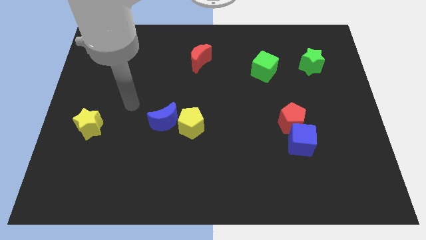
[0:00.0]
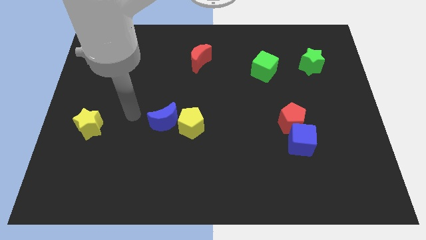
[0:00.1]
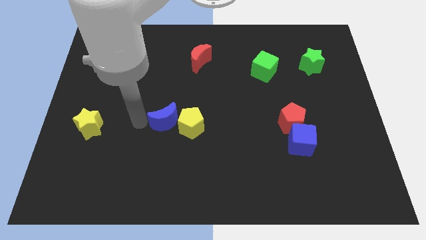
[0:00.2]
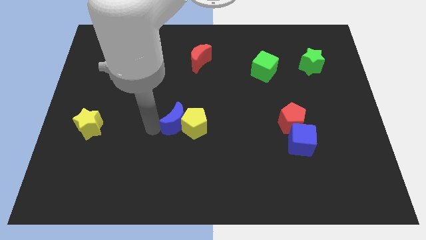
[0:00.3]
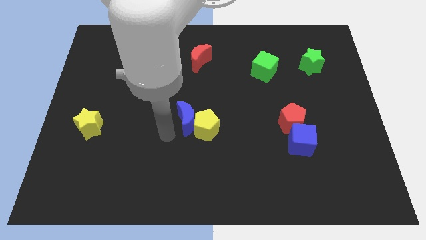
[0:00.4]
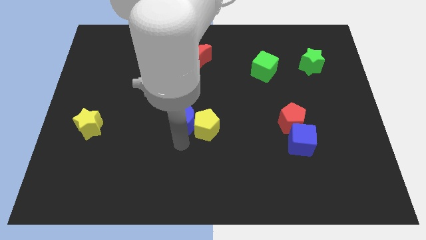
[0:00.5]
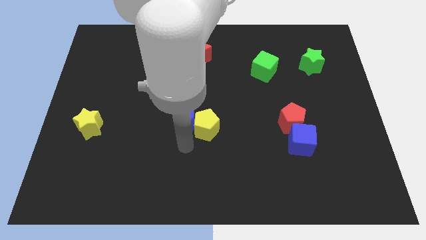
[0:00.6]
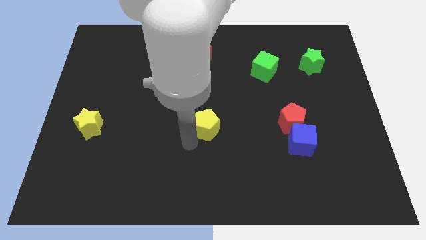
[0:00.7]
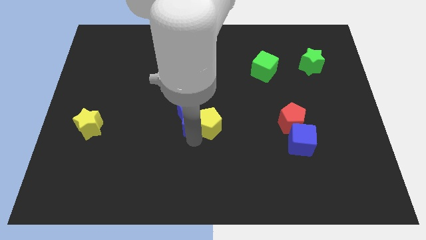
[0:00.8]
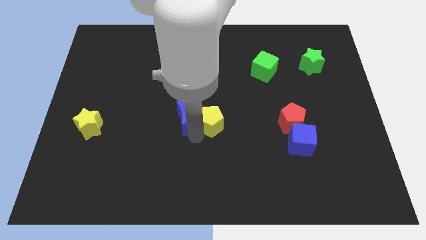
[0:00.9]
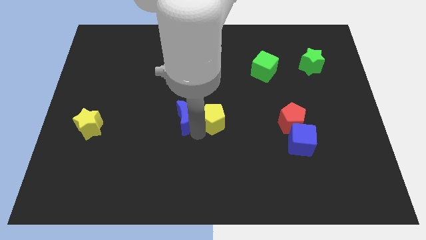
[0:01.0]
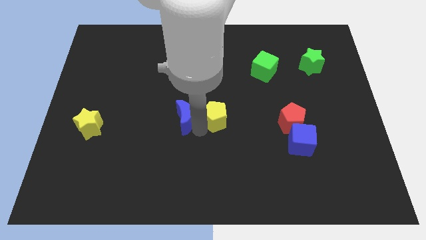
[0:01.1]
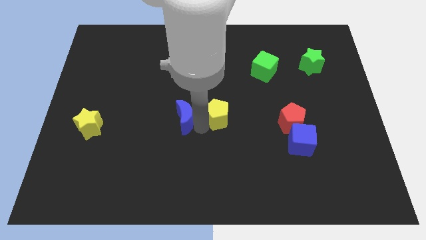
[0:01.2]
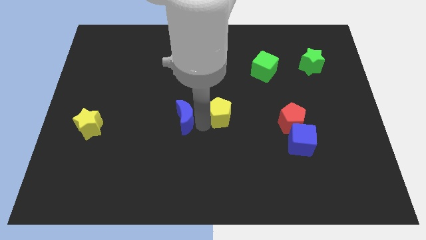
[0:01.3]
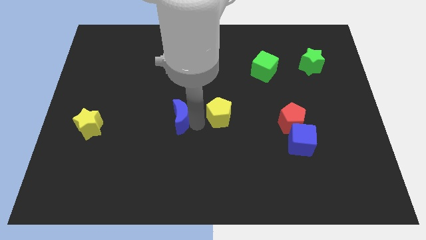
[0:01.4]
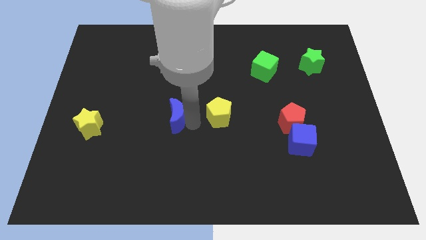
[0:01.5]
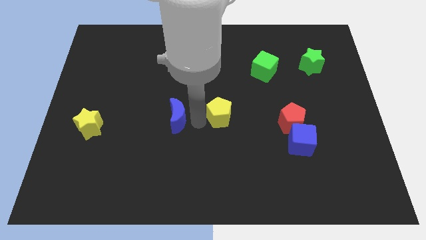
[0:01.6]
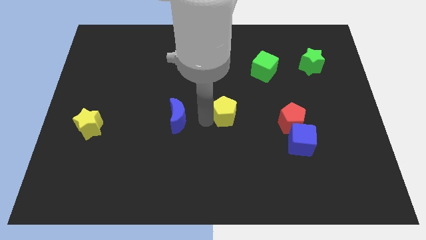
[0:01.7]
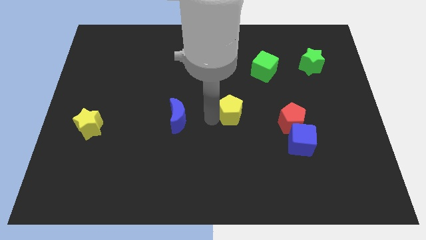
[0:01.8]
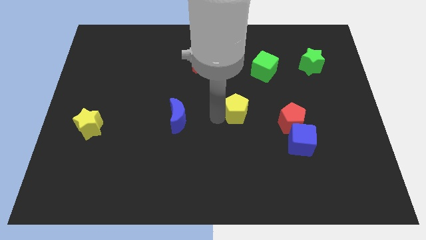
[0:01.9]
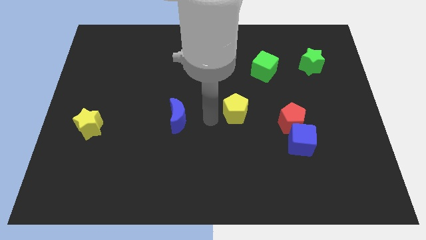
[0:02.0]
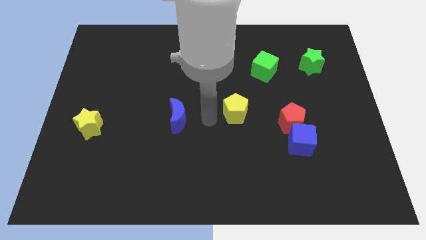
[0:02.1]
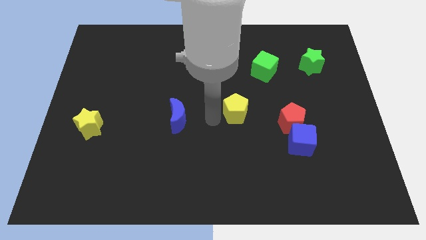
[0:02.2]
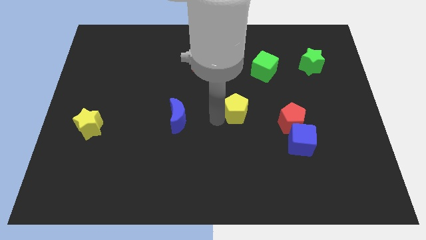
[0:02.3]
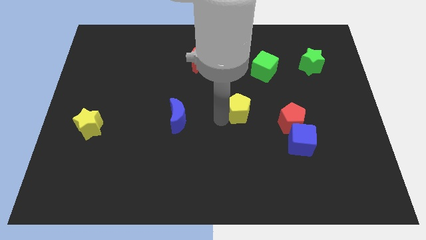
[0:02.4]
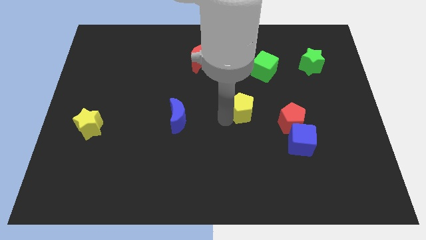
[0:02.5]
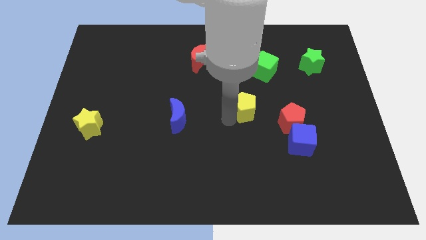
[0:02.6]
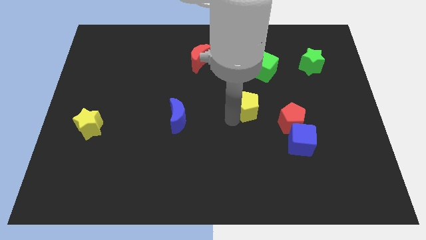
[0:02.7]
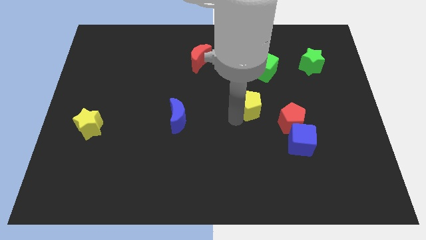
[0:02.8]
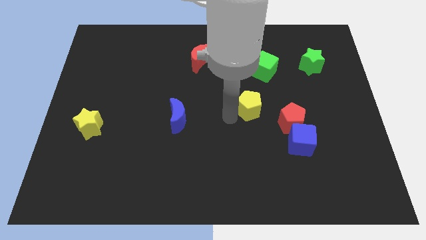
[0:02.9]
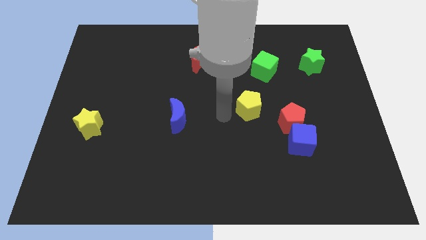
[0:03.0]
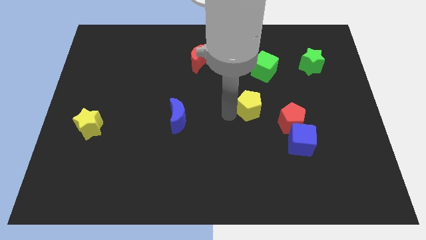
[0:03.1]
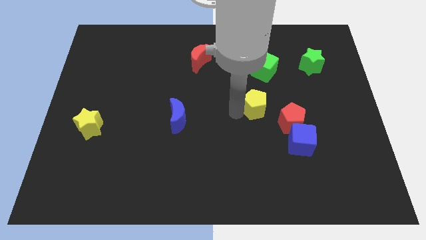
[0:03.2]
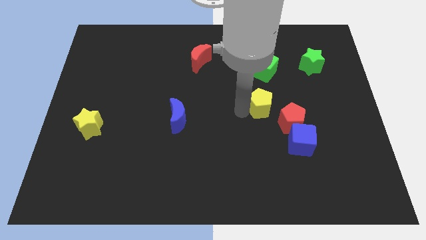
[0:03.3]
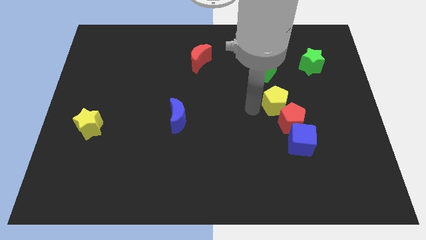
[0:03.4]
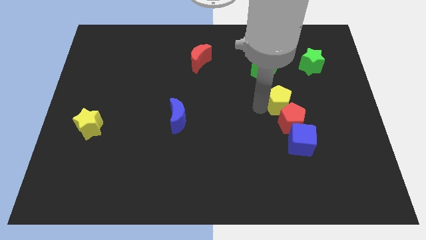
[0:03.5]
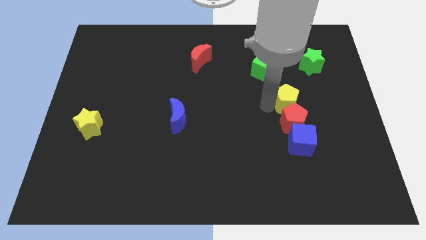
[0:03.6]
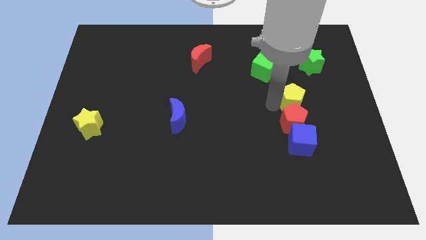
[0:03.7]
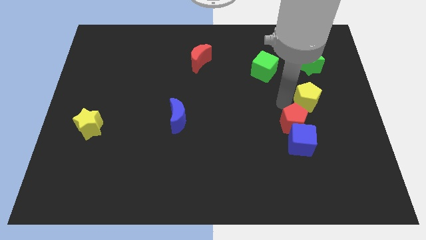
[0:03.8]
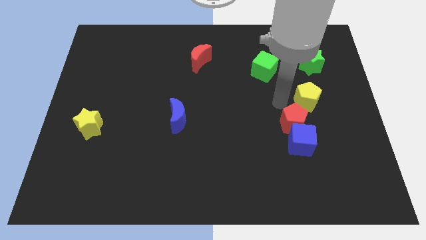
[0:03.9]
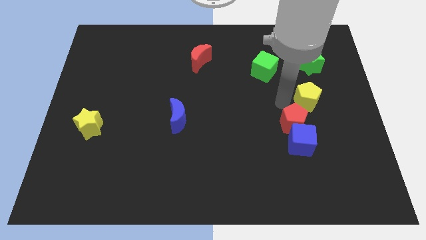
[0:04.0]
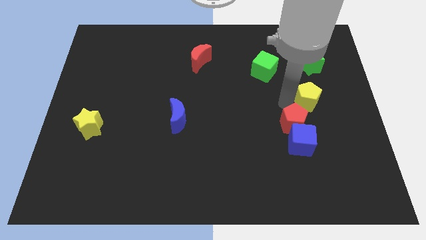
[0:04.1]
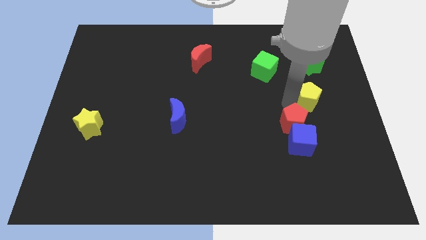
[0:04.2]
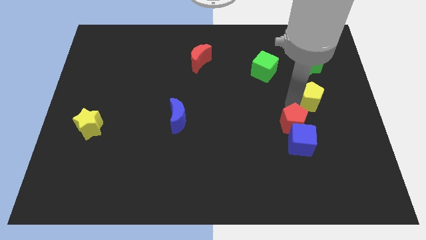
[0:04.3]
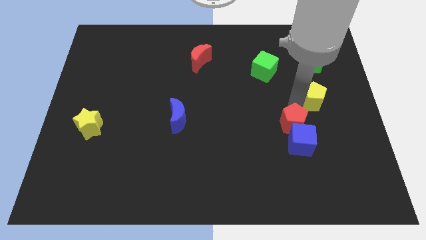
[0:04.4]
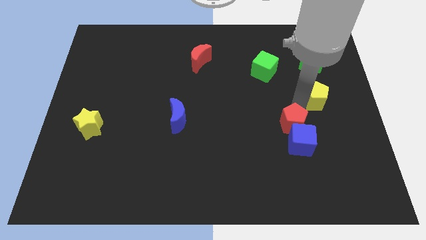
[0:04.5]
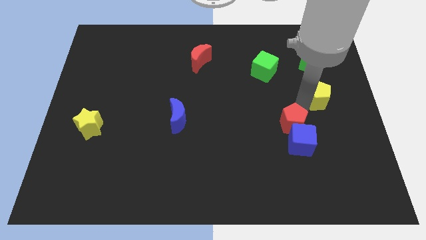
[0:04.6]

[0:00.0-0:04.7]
move the yellow pentagon to the right side

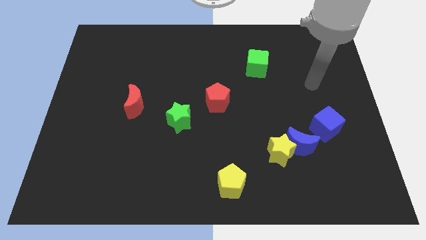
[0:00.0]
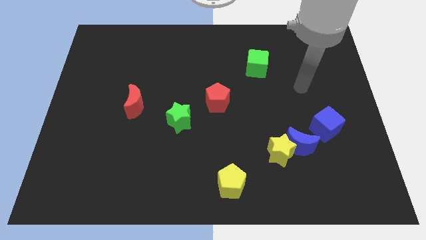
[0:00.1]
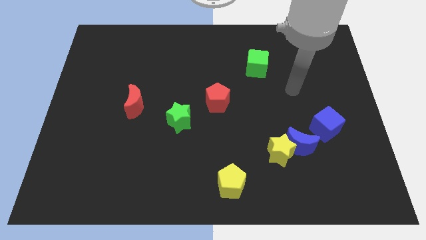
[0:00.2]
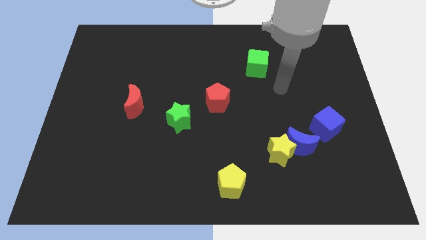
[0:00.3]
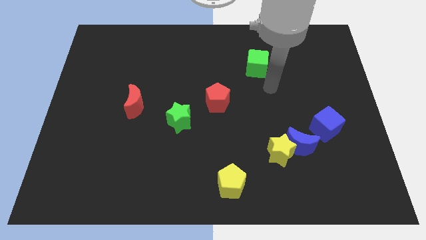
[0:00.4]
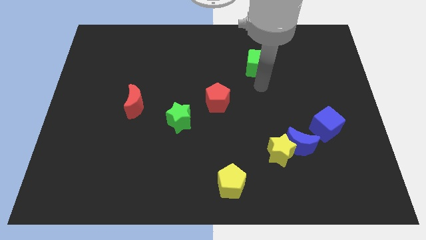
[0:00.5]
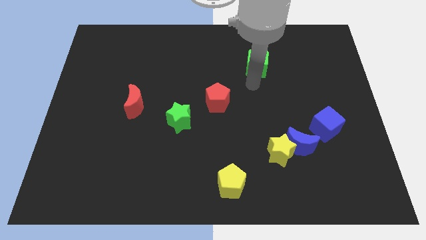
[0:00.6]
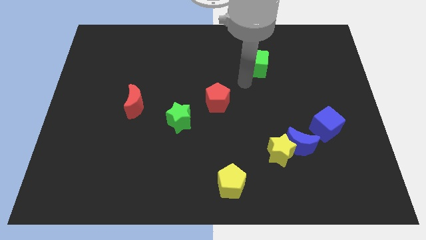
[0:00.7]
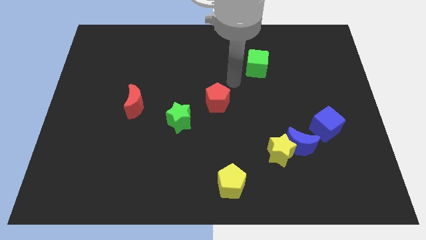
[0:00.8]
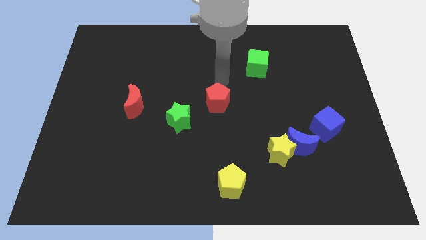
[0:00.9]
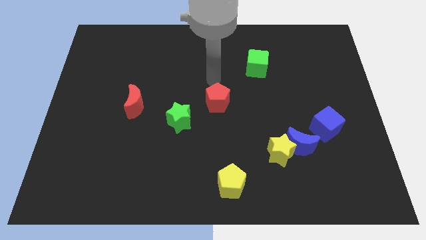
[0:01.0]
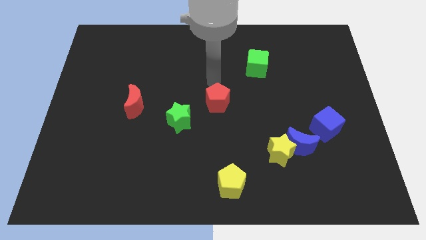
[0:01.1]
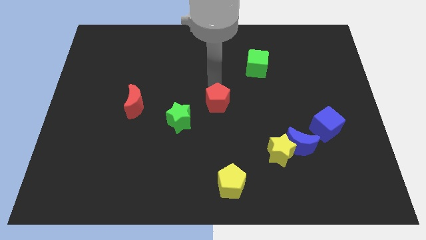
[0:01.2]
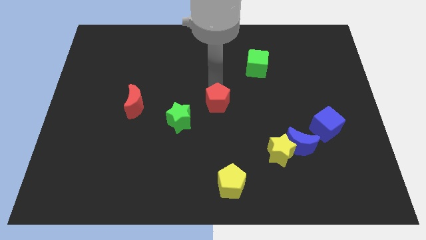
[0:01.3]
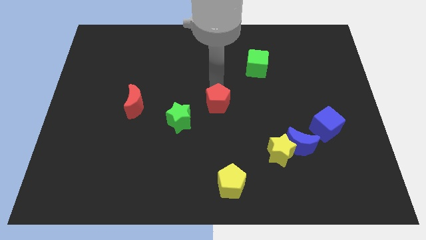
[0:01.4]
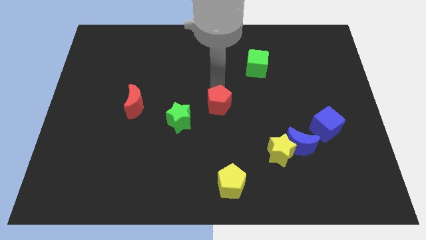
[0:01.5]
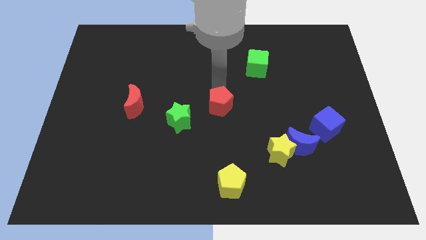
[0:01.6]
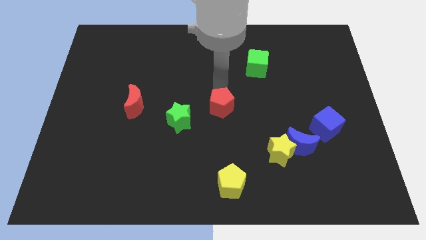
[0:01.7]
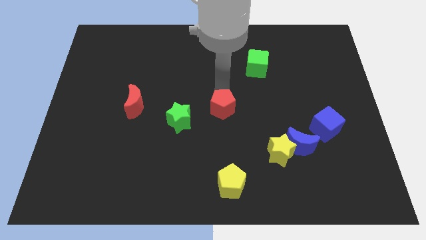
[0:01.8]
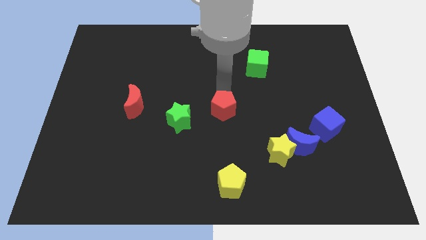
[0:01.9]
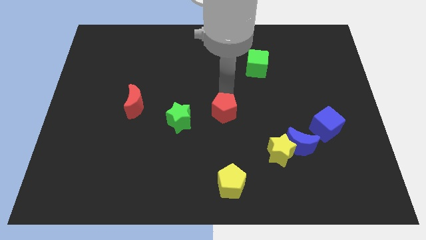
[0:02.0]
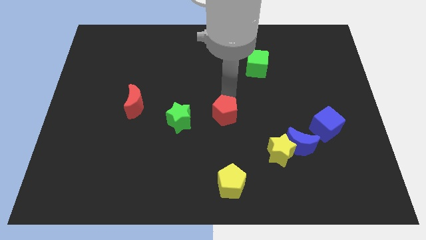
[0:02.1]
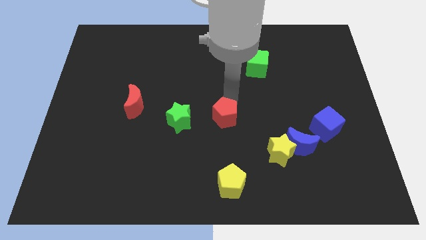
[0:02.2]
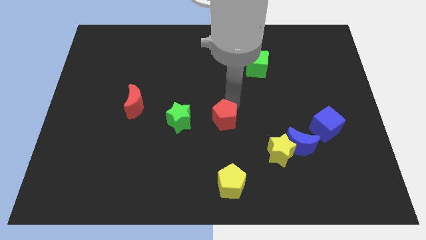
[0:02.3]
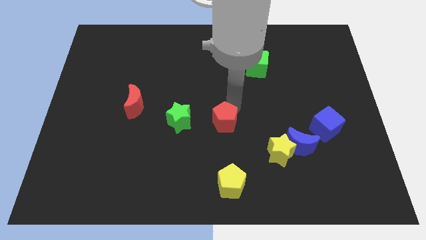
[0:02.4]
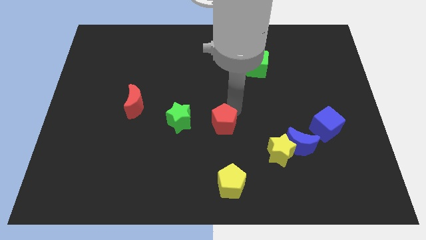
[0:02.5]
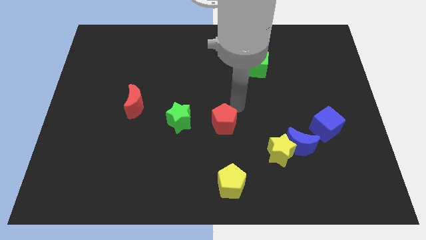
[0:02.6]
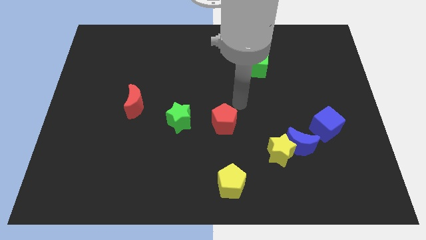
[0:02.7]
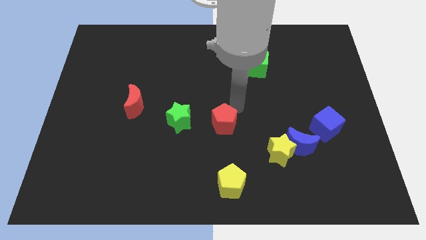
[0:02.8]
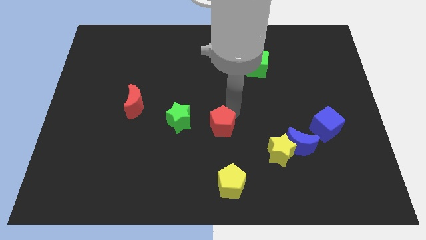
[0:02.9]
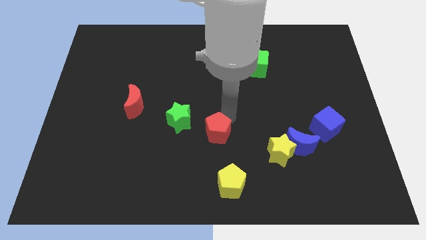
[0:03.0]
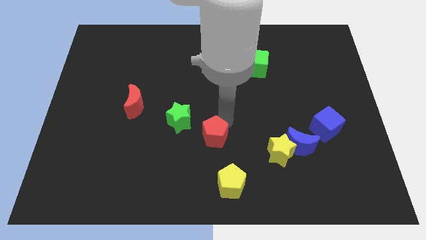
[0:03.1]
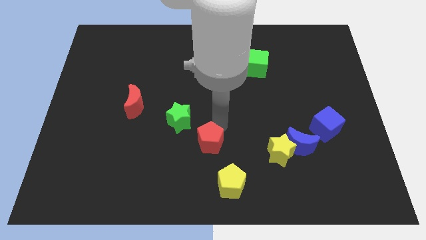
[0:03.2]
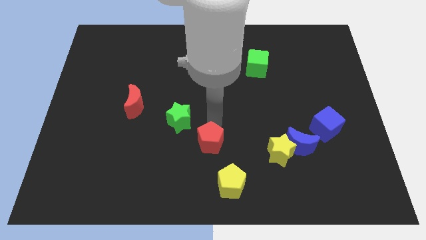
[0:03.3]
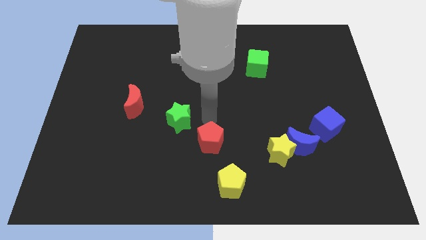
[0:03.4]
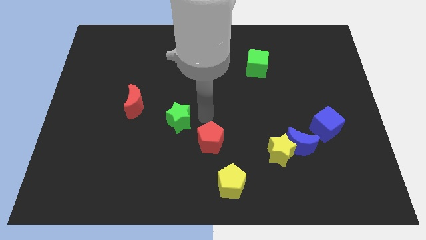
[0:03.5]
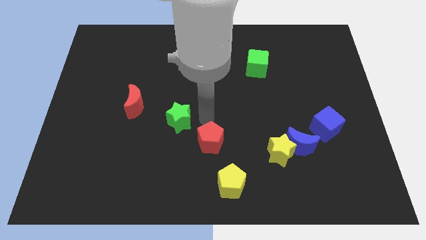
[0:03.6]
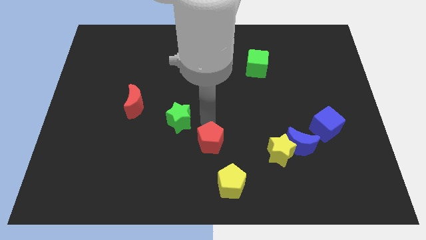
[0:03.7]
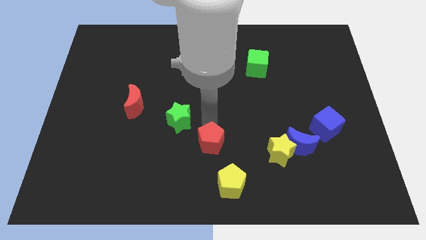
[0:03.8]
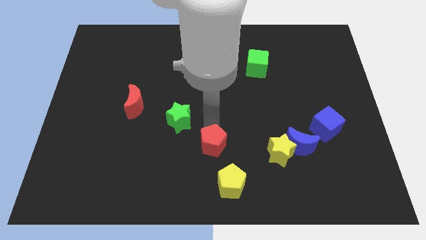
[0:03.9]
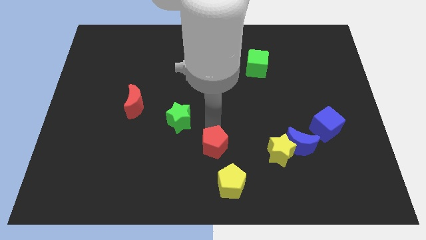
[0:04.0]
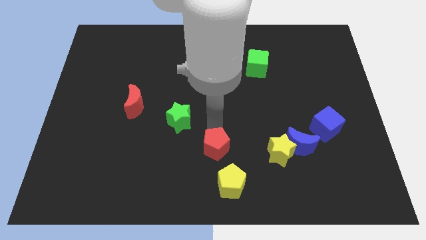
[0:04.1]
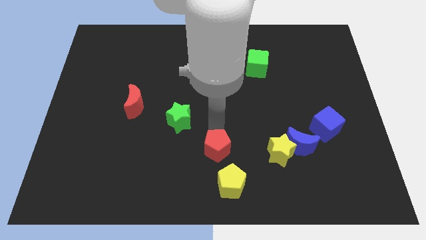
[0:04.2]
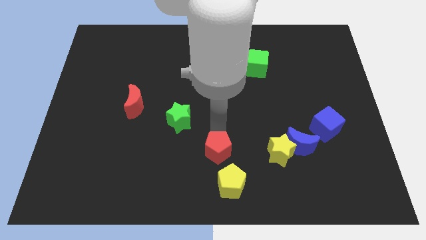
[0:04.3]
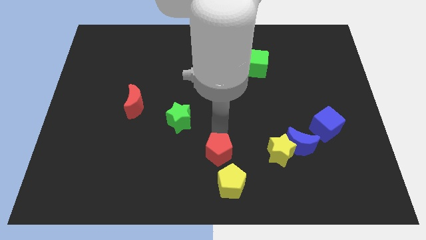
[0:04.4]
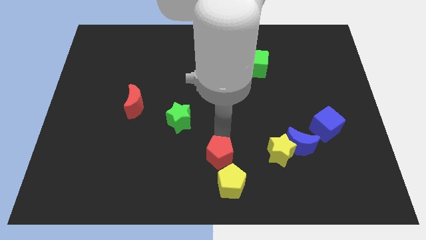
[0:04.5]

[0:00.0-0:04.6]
put the red pentagon to the bottom side
